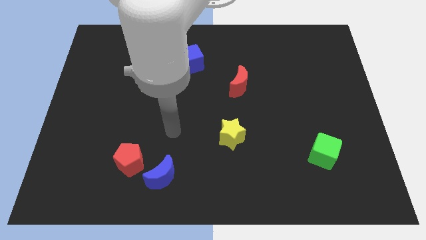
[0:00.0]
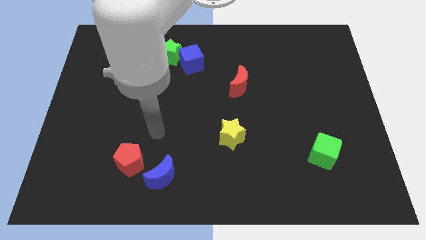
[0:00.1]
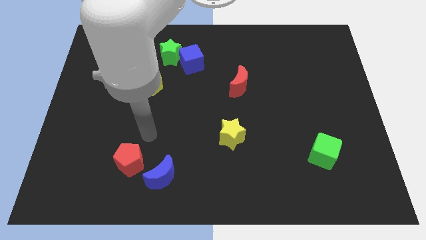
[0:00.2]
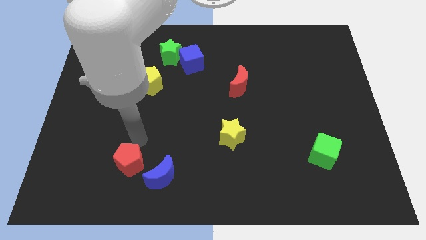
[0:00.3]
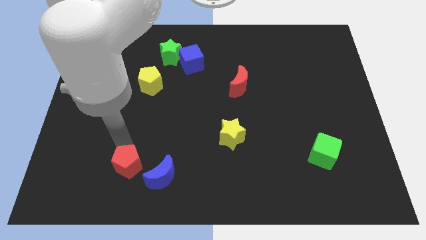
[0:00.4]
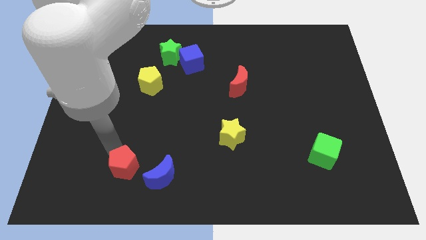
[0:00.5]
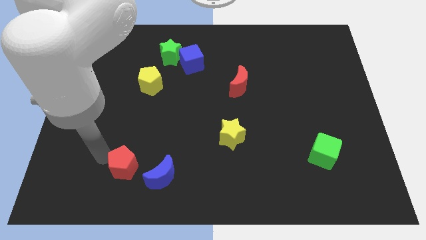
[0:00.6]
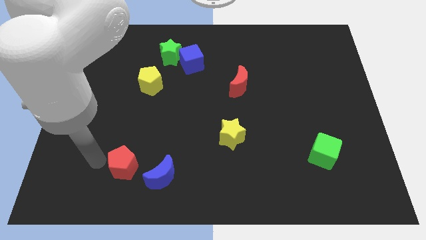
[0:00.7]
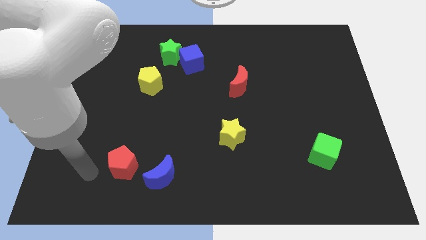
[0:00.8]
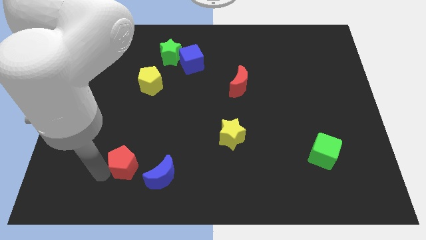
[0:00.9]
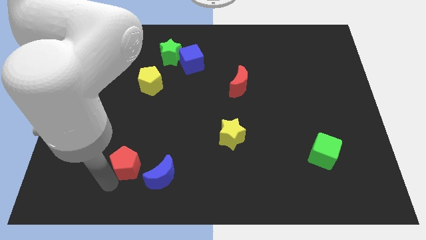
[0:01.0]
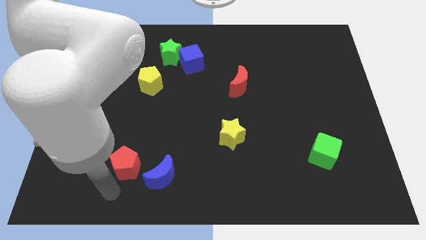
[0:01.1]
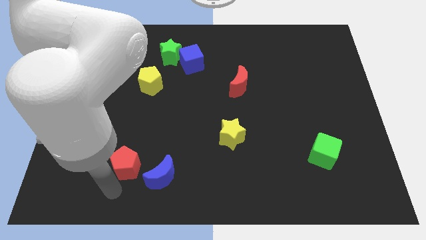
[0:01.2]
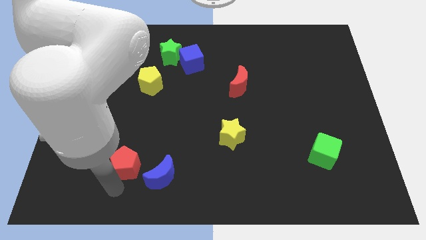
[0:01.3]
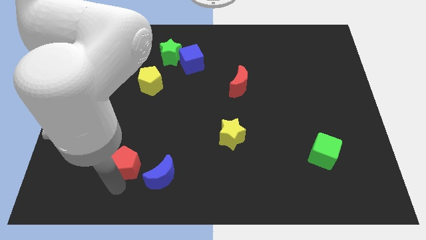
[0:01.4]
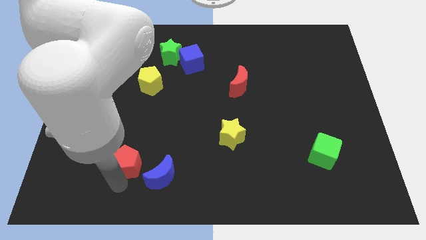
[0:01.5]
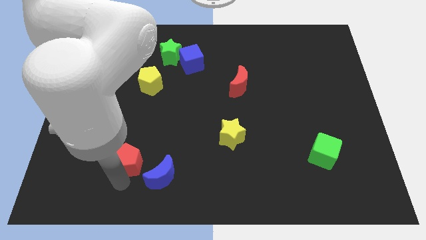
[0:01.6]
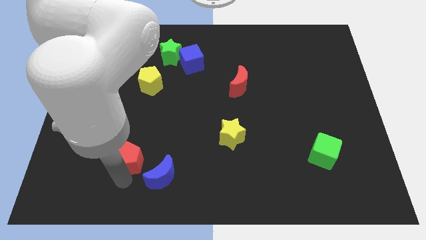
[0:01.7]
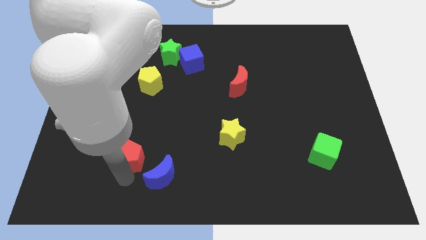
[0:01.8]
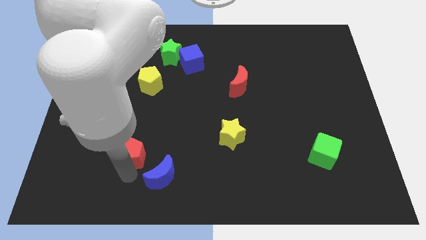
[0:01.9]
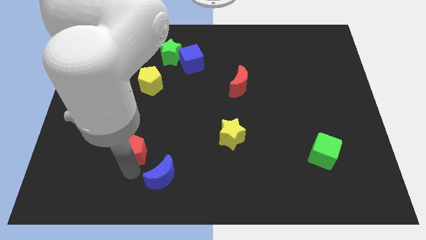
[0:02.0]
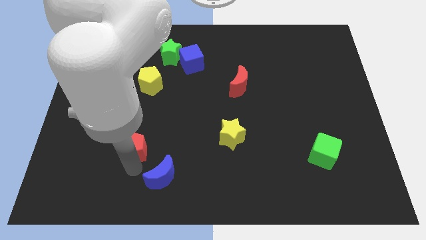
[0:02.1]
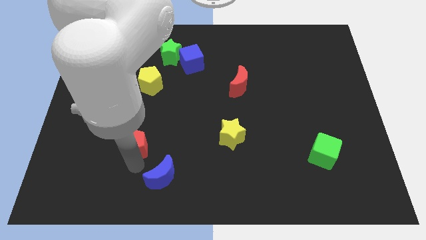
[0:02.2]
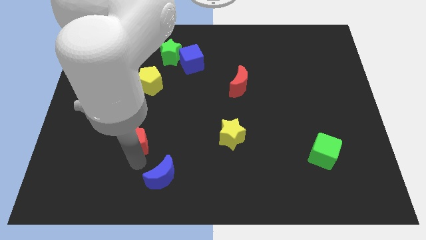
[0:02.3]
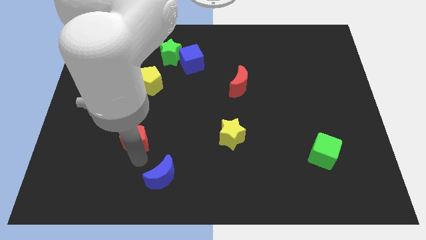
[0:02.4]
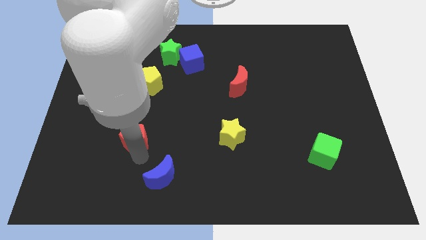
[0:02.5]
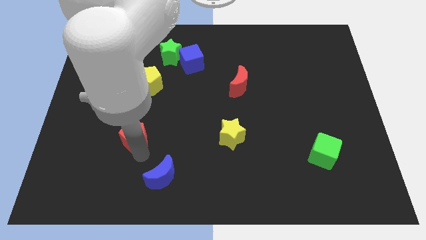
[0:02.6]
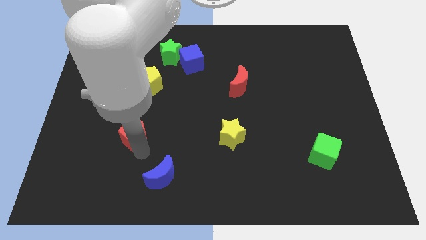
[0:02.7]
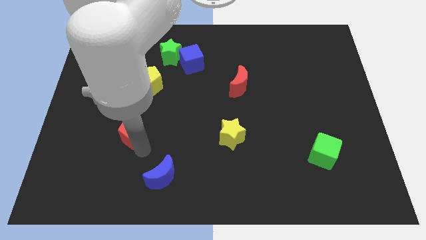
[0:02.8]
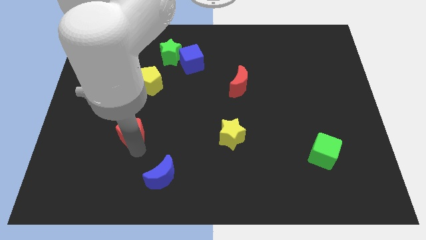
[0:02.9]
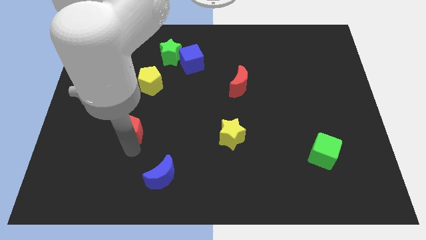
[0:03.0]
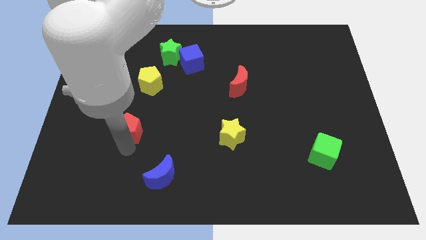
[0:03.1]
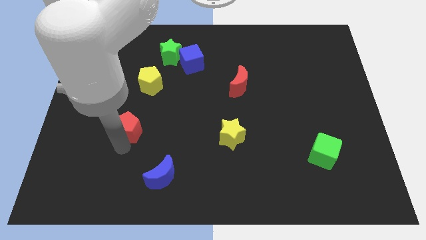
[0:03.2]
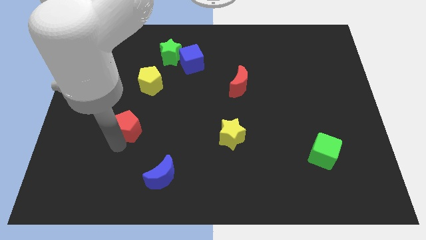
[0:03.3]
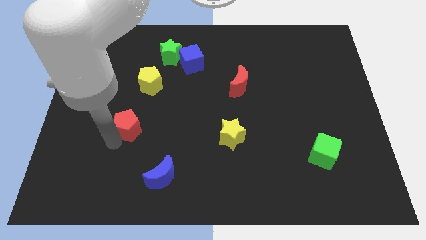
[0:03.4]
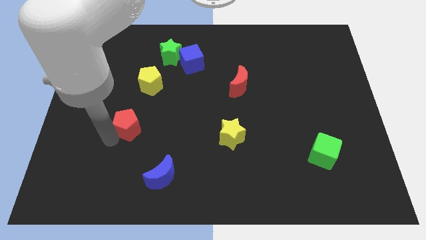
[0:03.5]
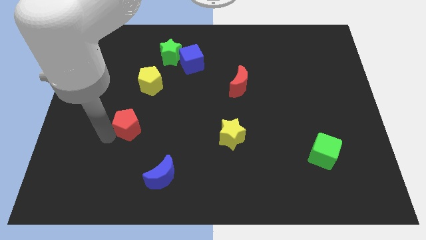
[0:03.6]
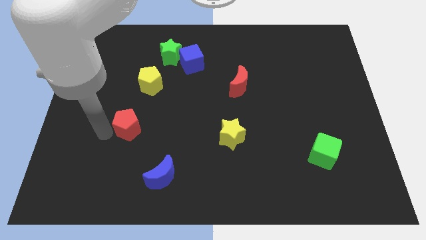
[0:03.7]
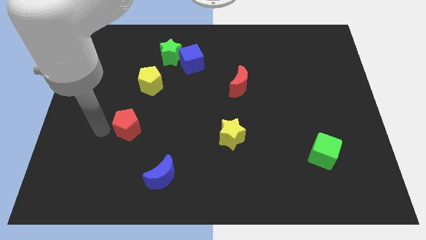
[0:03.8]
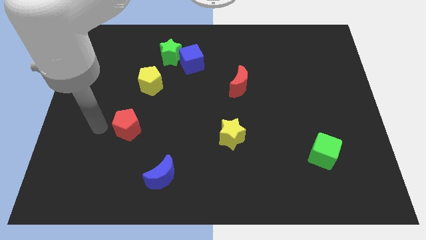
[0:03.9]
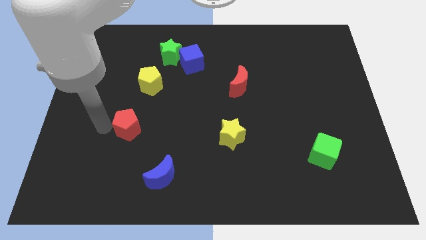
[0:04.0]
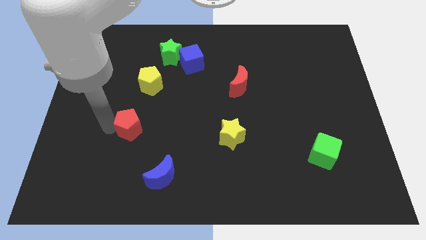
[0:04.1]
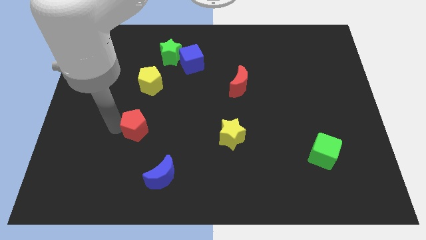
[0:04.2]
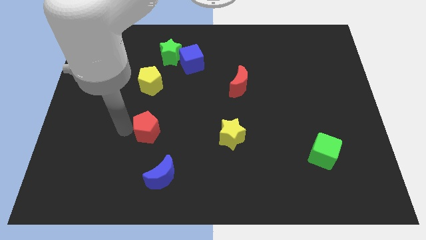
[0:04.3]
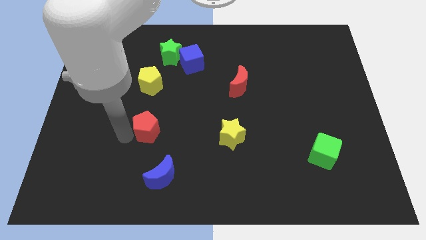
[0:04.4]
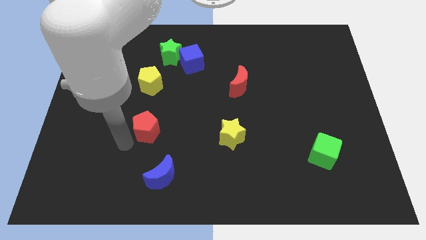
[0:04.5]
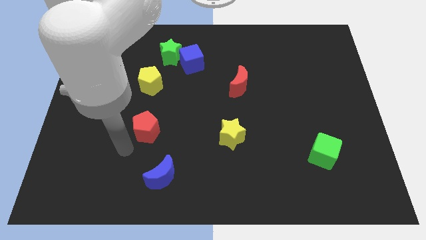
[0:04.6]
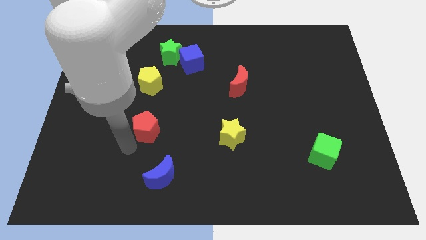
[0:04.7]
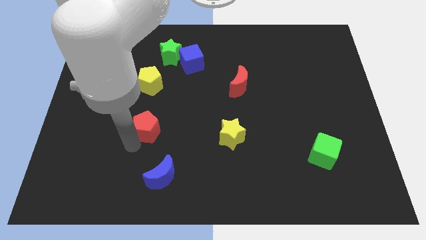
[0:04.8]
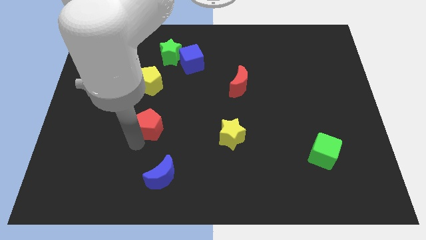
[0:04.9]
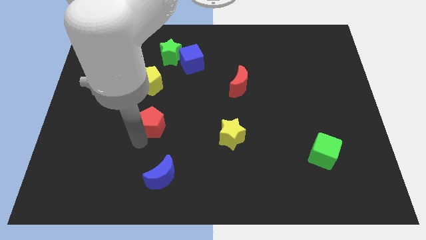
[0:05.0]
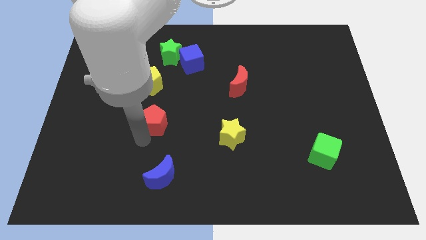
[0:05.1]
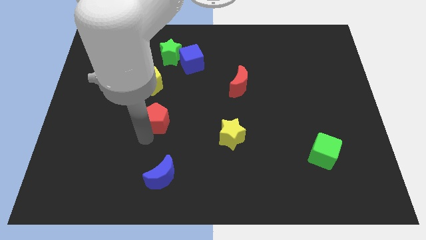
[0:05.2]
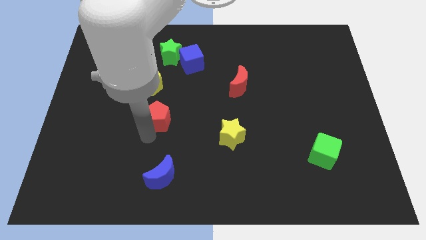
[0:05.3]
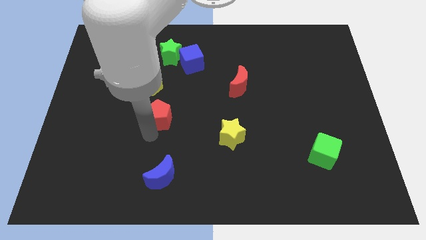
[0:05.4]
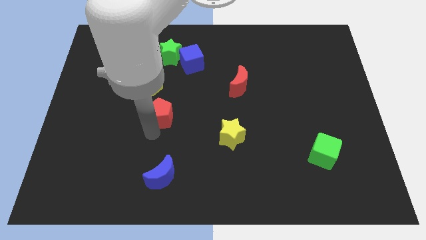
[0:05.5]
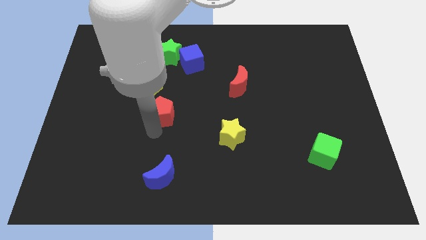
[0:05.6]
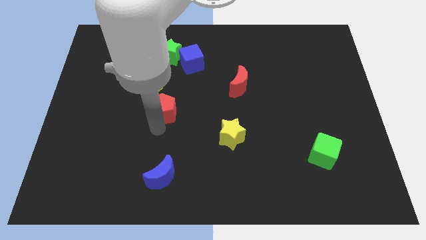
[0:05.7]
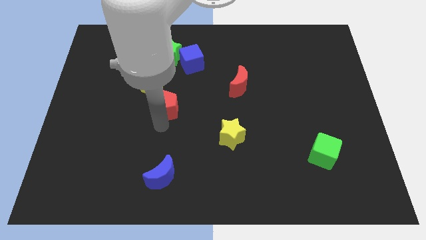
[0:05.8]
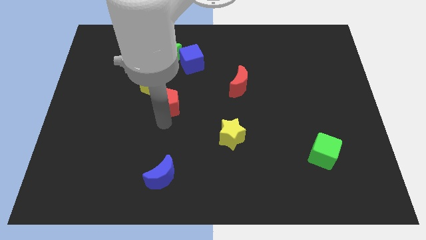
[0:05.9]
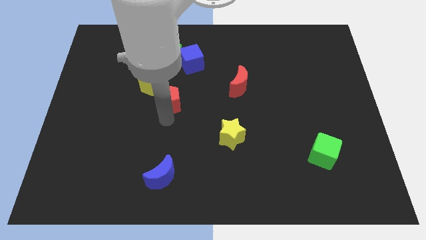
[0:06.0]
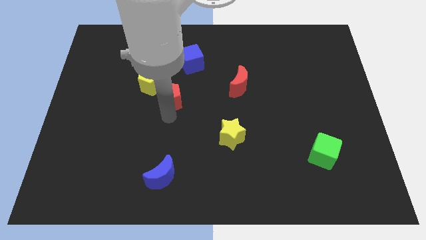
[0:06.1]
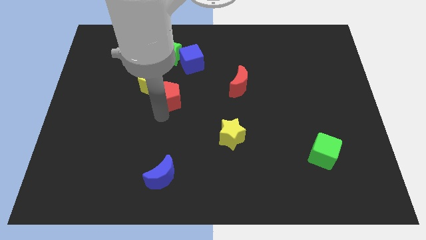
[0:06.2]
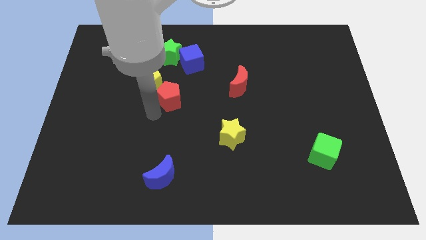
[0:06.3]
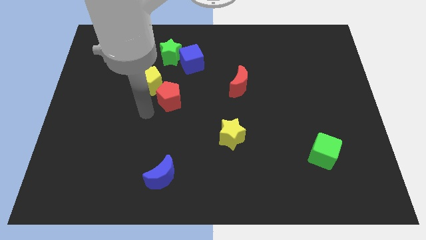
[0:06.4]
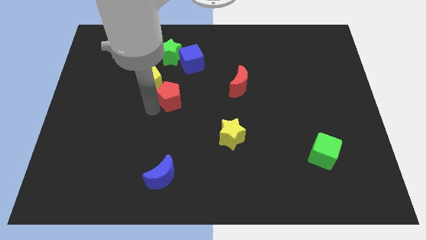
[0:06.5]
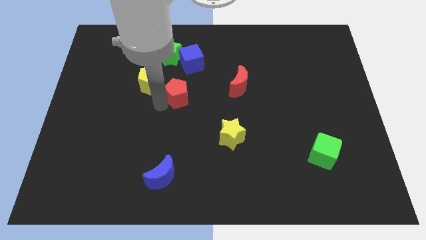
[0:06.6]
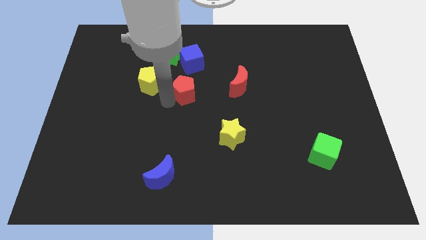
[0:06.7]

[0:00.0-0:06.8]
put the red pentagon to the left side of the red moon

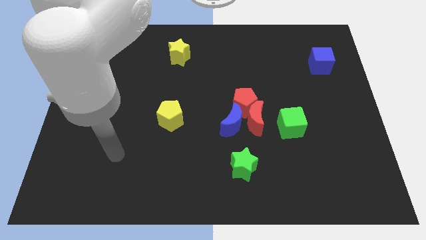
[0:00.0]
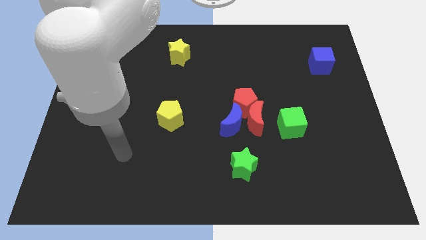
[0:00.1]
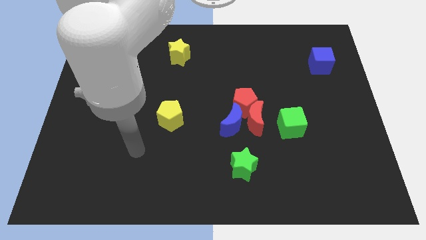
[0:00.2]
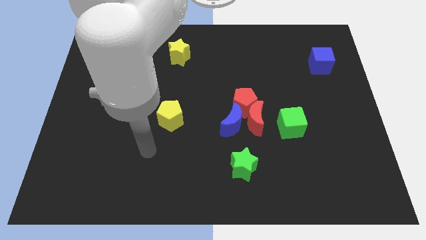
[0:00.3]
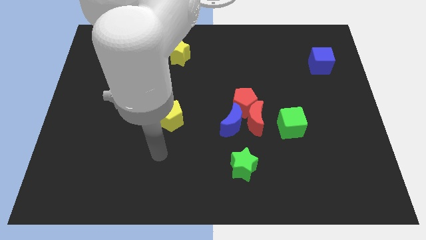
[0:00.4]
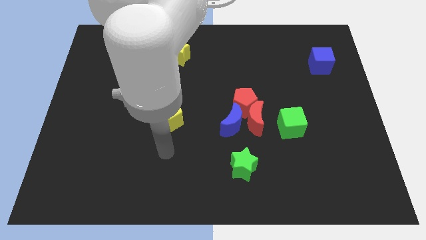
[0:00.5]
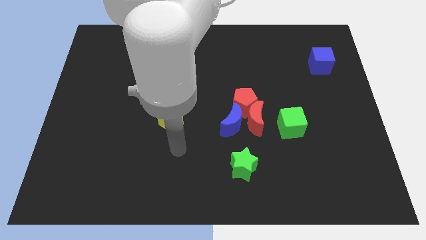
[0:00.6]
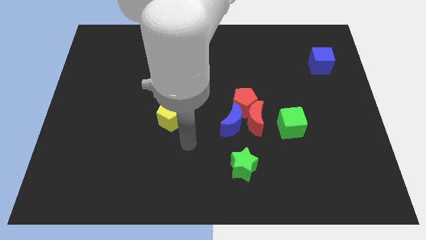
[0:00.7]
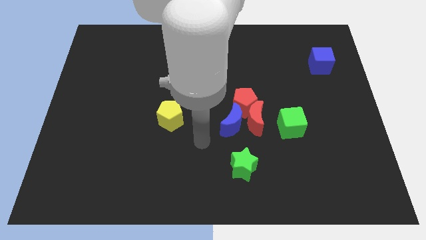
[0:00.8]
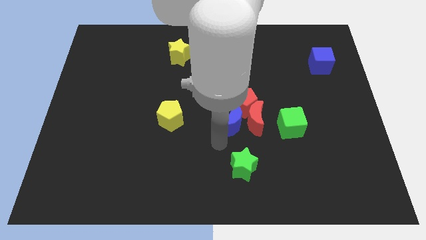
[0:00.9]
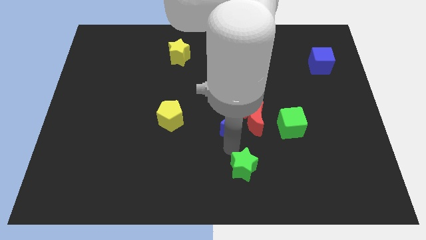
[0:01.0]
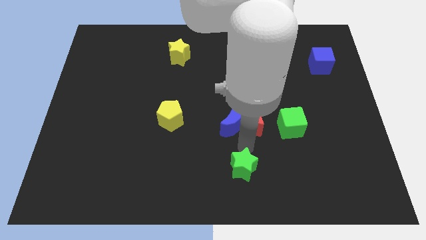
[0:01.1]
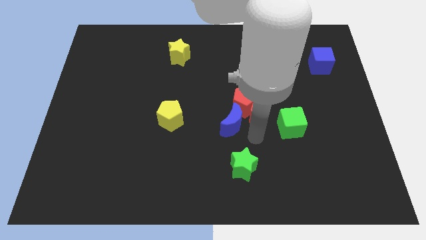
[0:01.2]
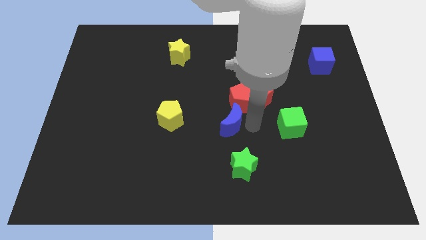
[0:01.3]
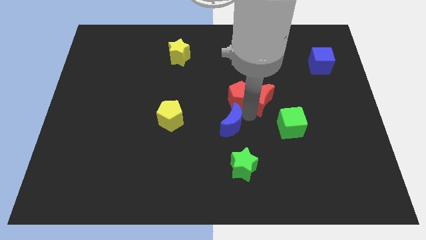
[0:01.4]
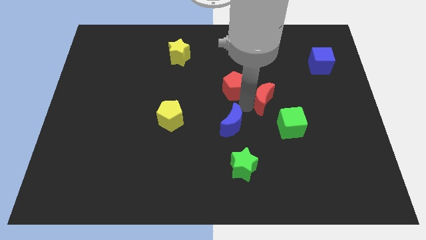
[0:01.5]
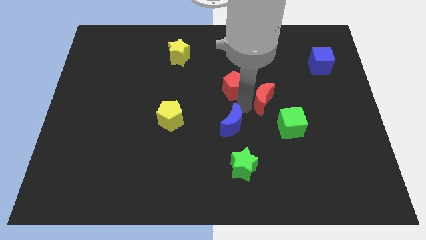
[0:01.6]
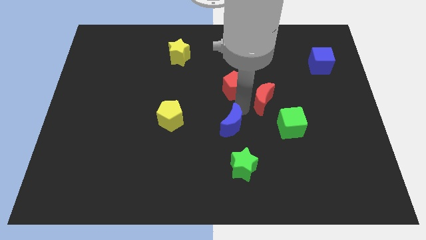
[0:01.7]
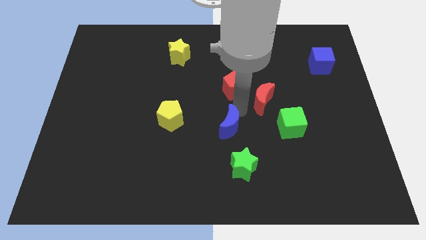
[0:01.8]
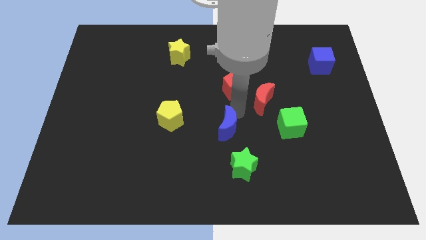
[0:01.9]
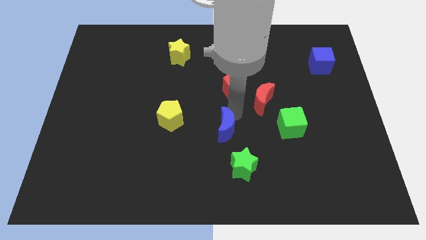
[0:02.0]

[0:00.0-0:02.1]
slide the blue moon diagonally up and to the left of the green star
